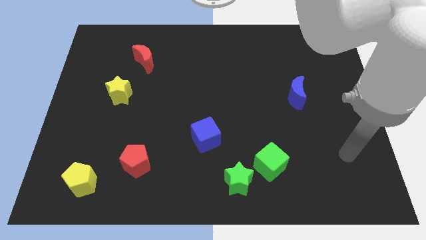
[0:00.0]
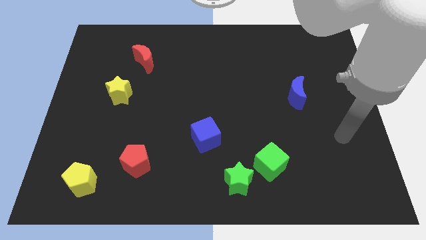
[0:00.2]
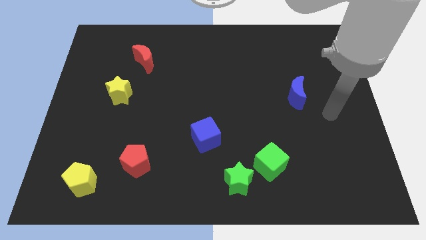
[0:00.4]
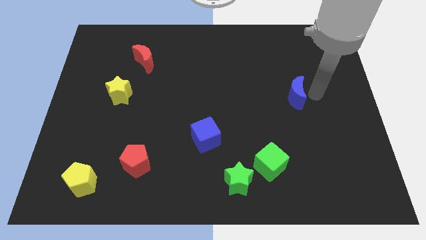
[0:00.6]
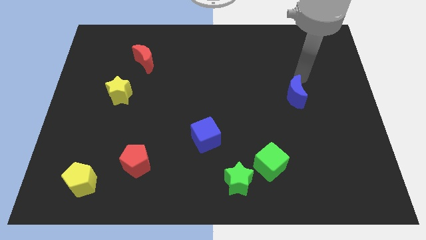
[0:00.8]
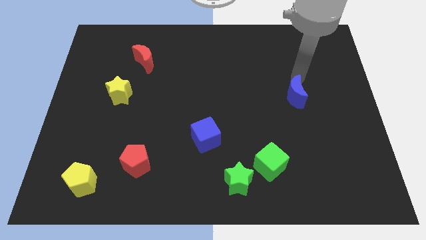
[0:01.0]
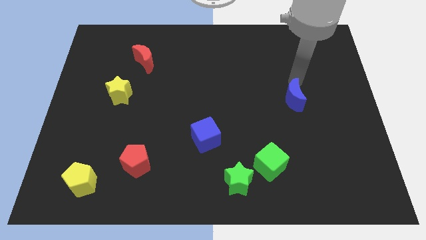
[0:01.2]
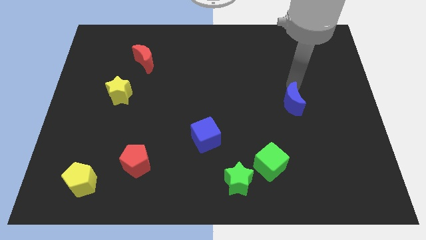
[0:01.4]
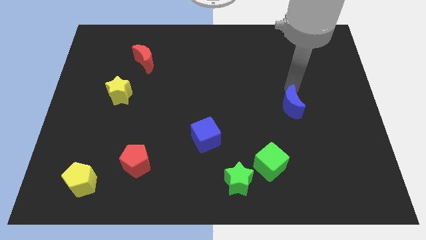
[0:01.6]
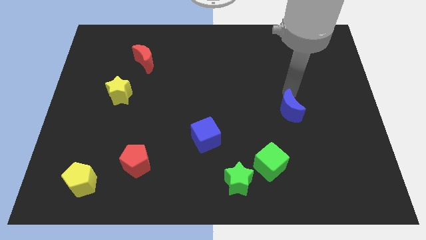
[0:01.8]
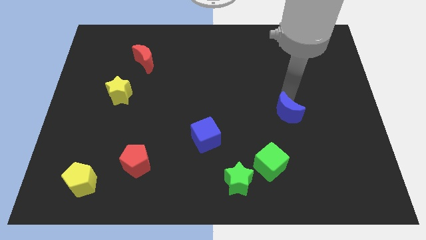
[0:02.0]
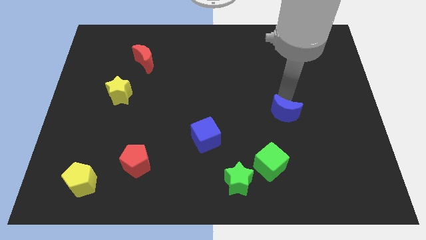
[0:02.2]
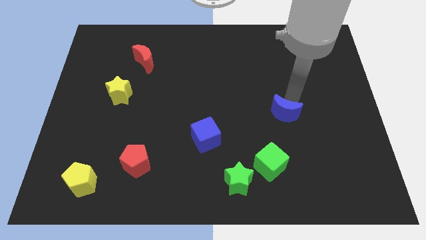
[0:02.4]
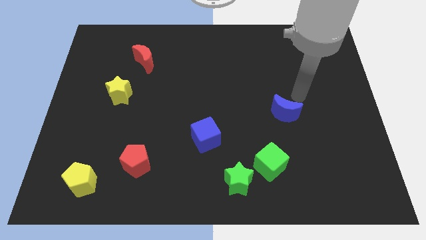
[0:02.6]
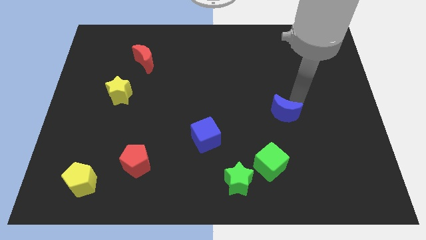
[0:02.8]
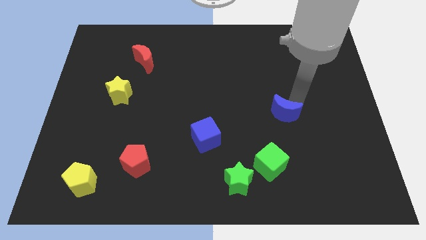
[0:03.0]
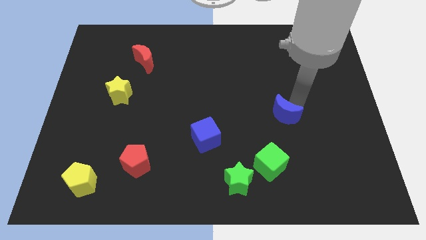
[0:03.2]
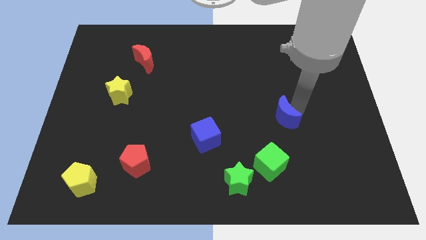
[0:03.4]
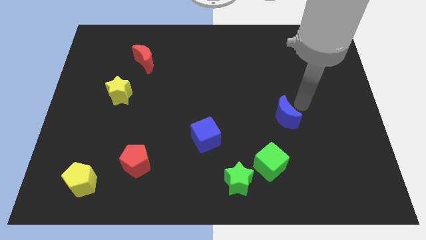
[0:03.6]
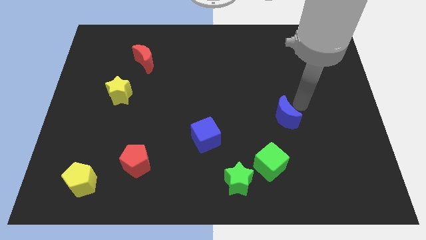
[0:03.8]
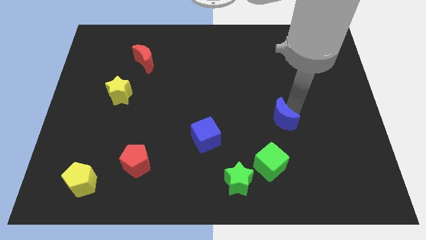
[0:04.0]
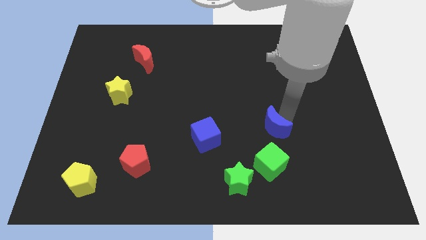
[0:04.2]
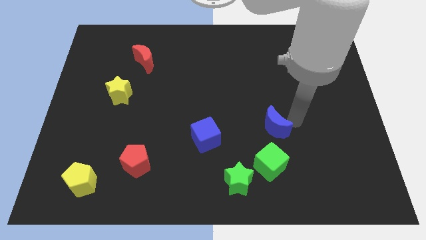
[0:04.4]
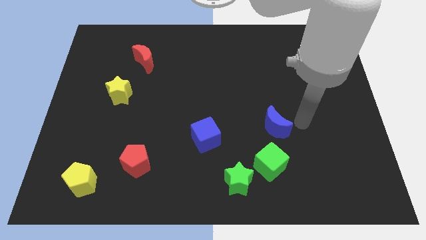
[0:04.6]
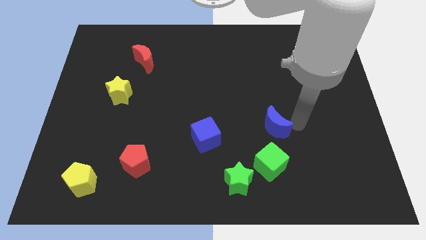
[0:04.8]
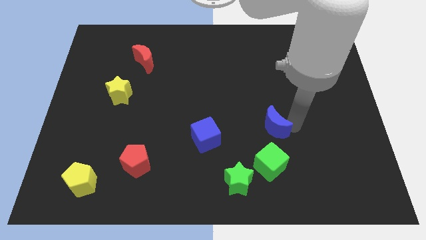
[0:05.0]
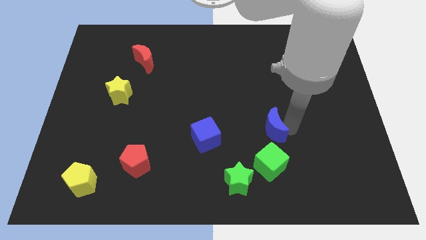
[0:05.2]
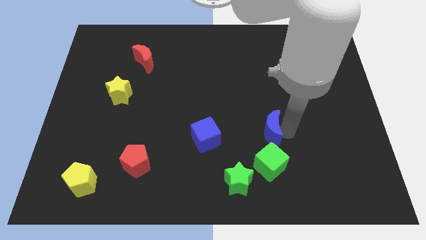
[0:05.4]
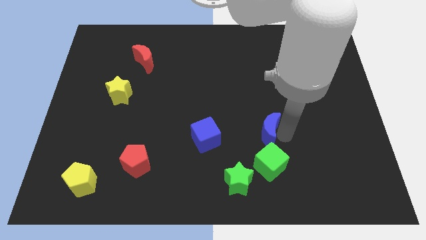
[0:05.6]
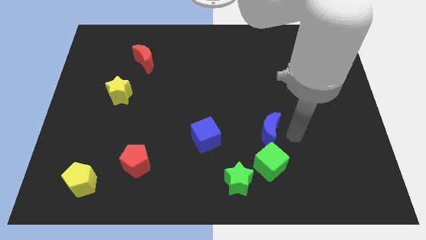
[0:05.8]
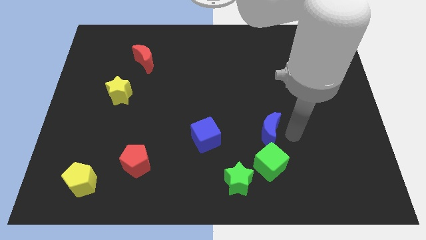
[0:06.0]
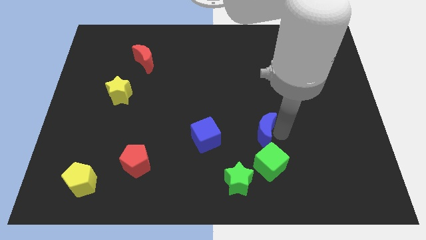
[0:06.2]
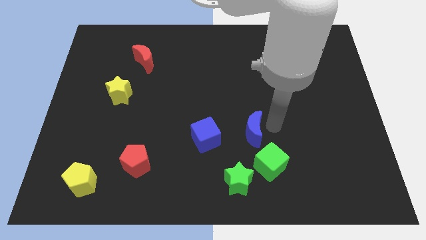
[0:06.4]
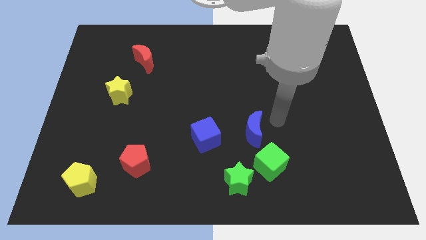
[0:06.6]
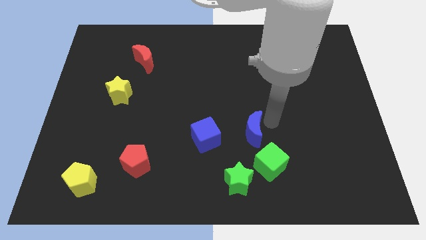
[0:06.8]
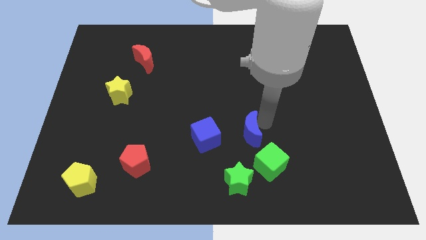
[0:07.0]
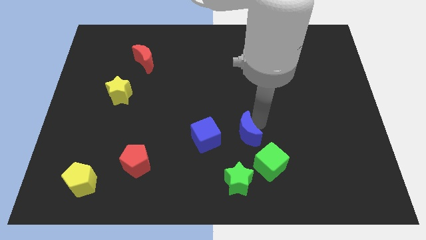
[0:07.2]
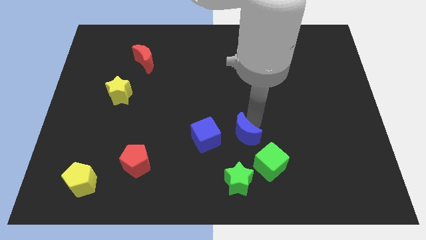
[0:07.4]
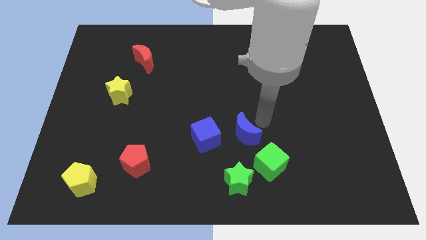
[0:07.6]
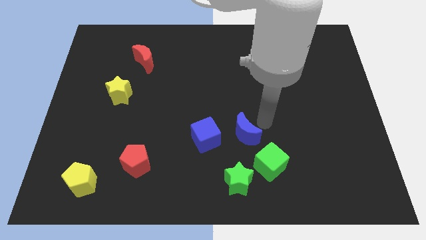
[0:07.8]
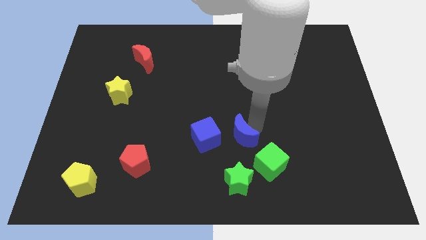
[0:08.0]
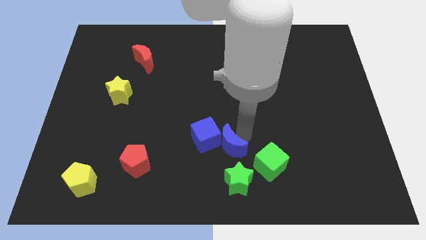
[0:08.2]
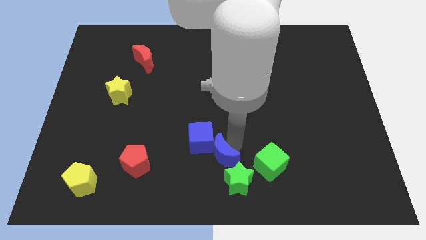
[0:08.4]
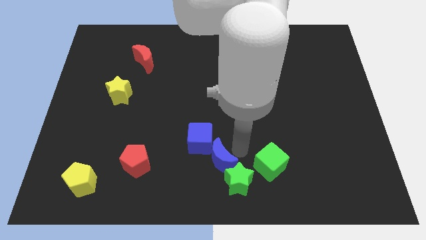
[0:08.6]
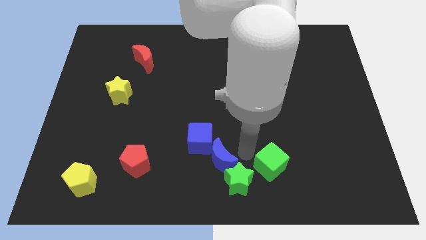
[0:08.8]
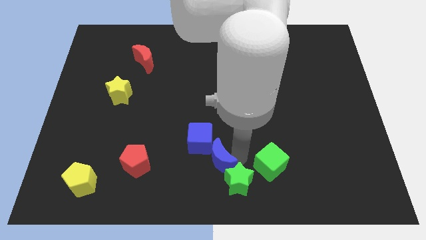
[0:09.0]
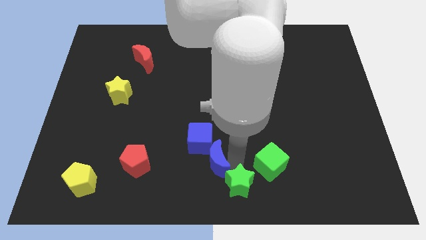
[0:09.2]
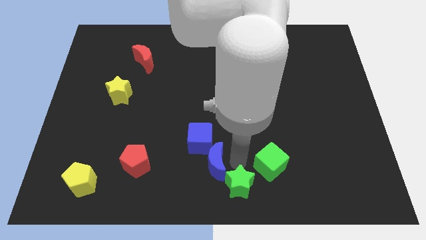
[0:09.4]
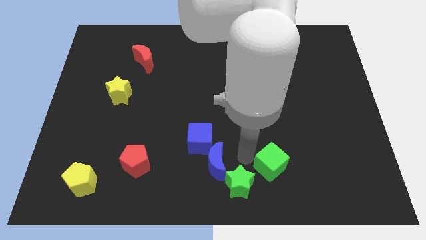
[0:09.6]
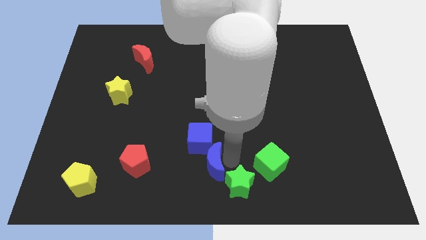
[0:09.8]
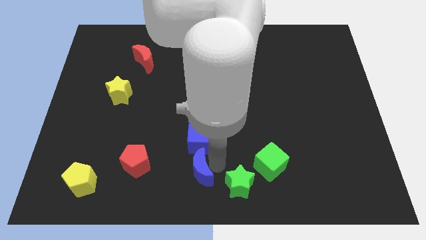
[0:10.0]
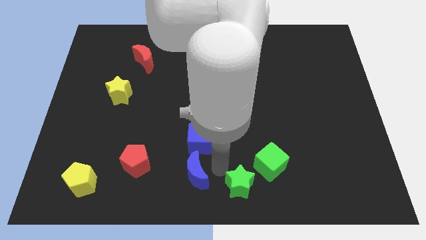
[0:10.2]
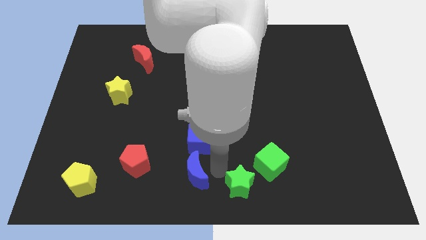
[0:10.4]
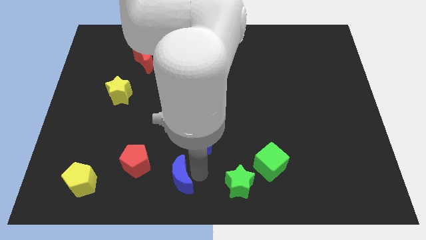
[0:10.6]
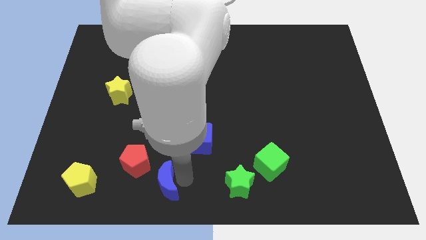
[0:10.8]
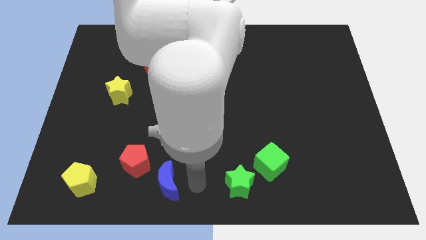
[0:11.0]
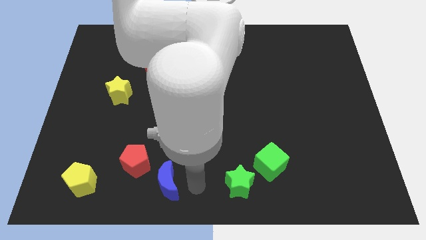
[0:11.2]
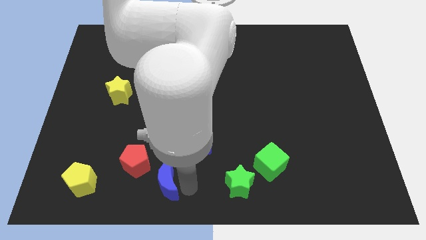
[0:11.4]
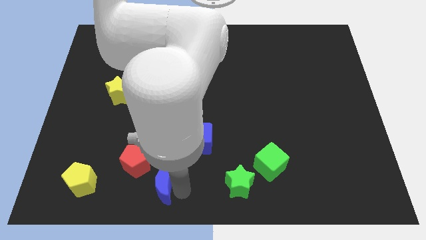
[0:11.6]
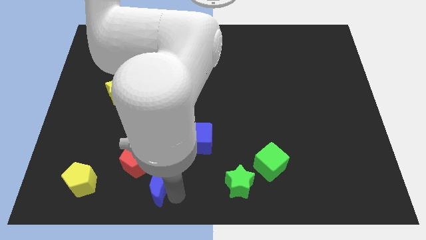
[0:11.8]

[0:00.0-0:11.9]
move the blue moon to the right of the yellow pentagon
